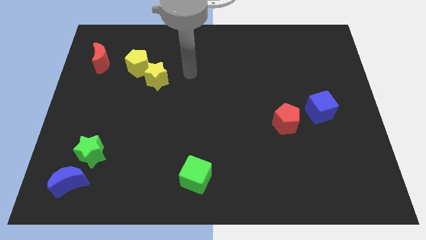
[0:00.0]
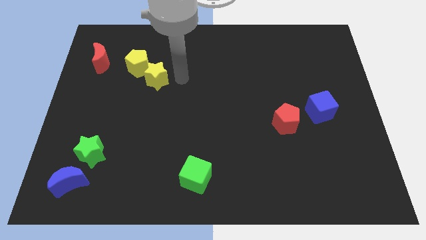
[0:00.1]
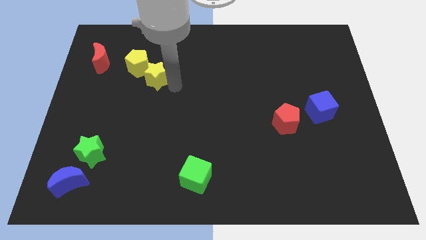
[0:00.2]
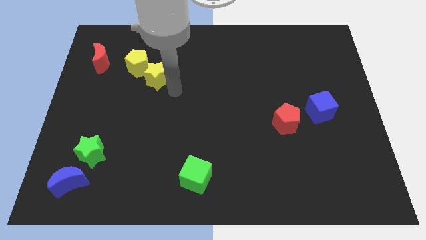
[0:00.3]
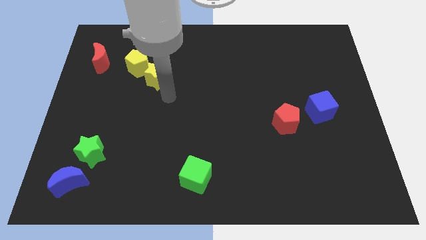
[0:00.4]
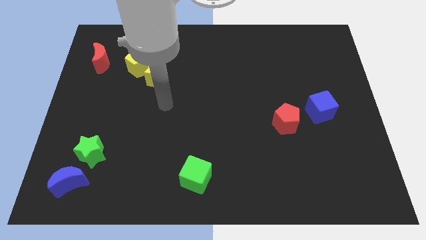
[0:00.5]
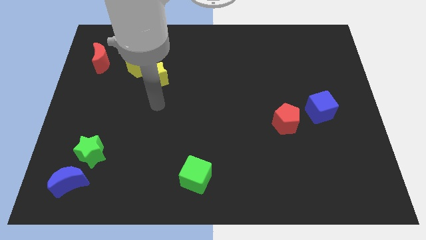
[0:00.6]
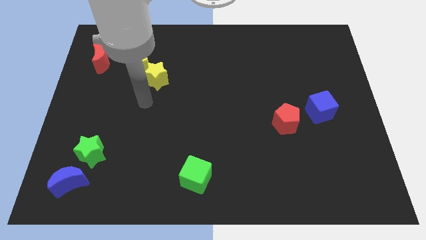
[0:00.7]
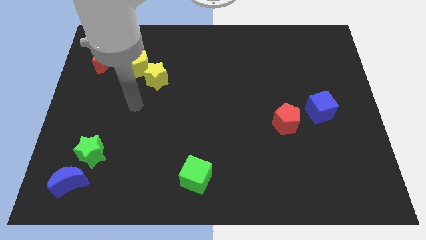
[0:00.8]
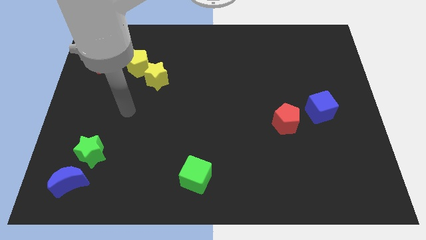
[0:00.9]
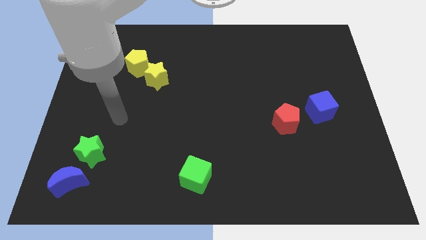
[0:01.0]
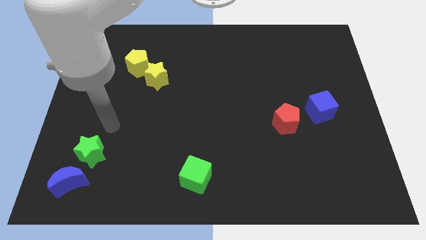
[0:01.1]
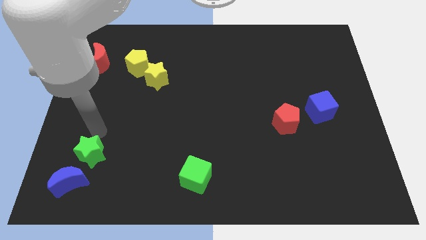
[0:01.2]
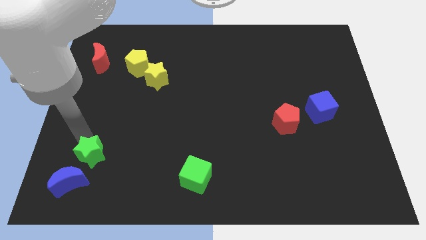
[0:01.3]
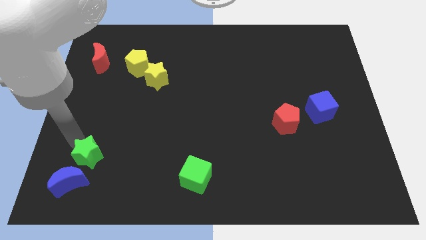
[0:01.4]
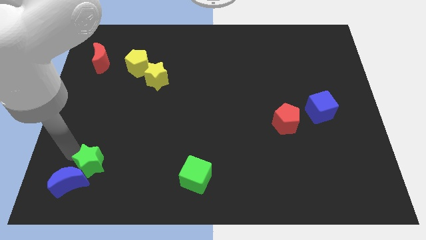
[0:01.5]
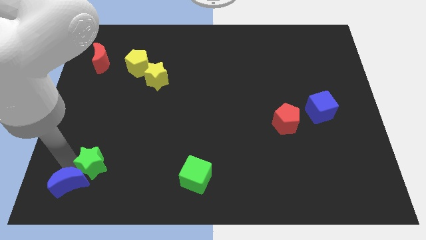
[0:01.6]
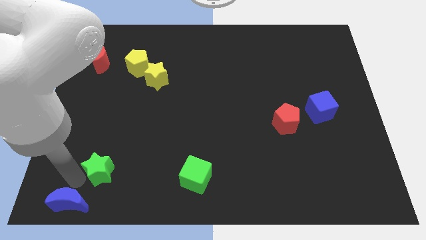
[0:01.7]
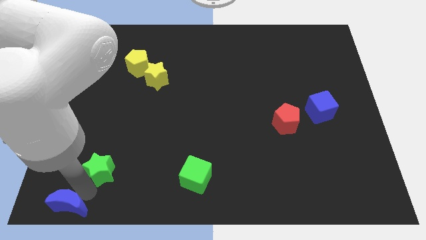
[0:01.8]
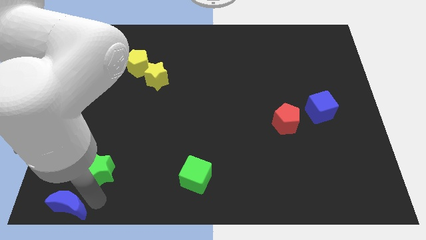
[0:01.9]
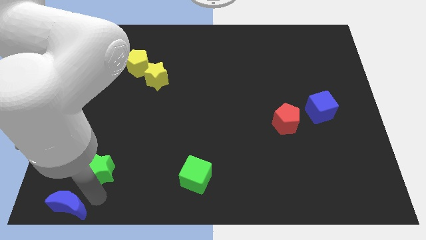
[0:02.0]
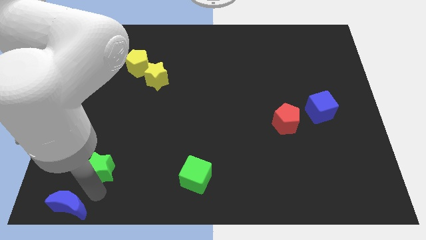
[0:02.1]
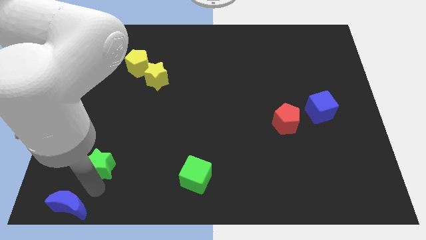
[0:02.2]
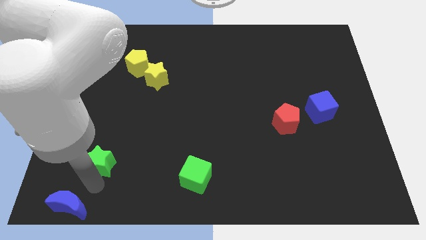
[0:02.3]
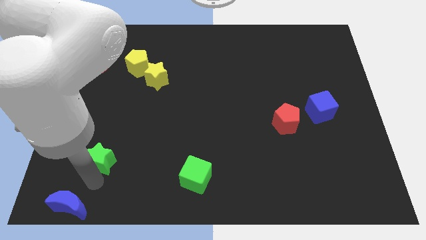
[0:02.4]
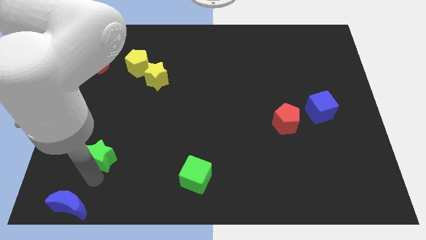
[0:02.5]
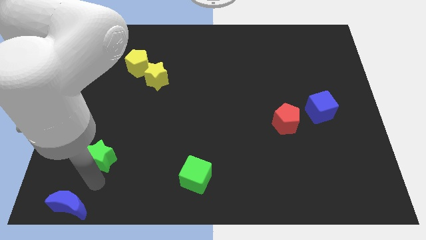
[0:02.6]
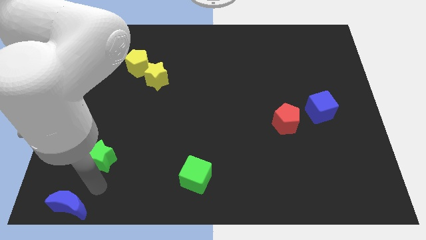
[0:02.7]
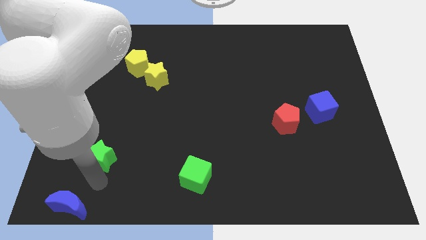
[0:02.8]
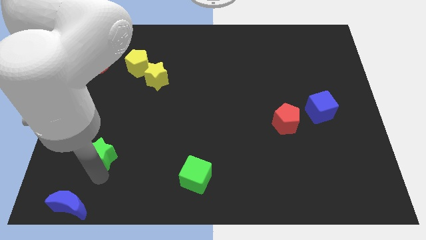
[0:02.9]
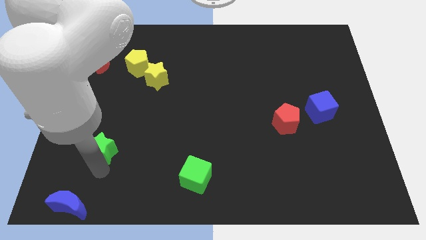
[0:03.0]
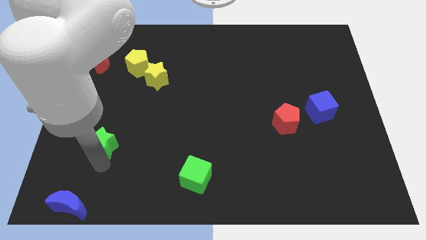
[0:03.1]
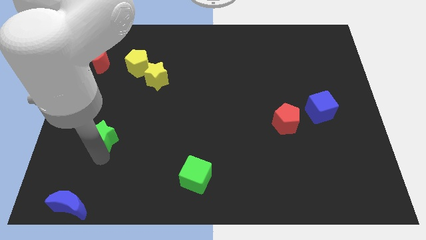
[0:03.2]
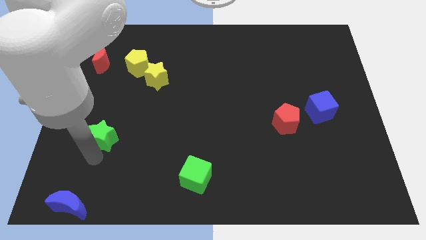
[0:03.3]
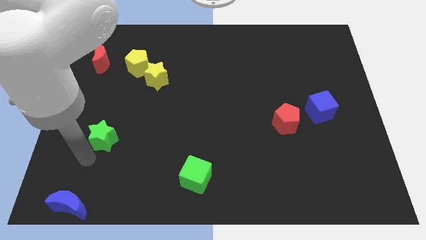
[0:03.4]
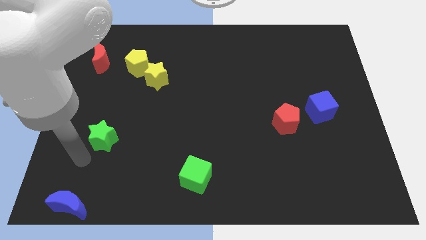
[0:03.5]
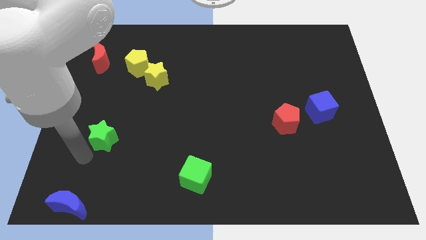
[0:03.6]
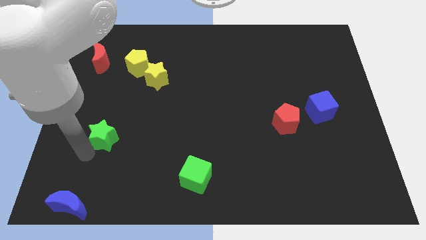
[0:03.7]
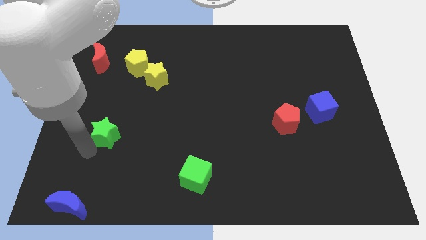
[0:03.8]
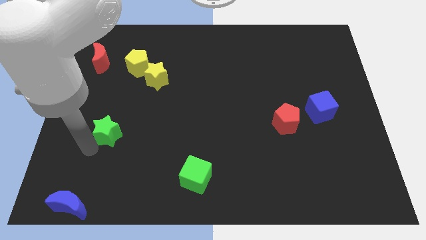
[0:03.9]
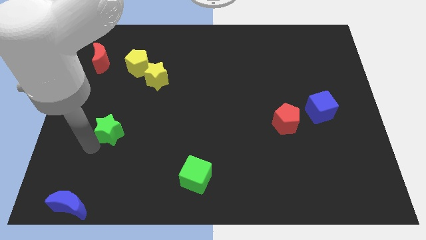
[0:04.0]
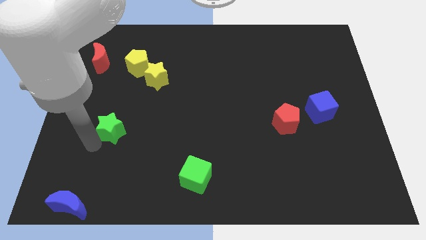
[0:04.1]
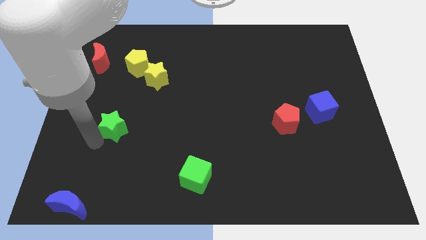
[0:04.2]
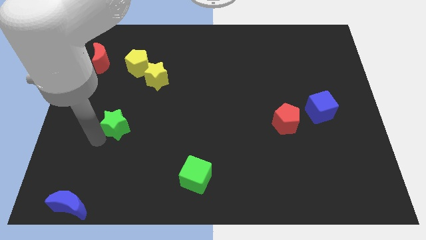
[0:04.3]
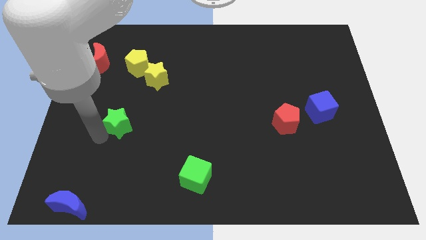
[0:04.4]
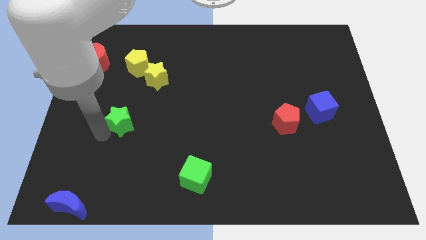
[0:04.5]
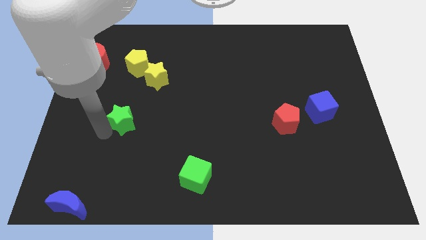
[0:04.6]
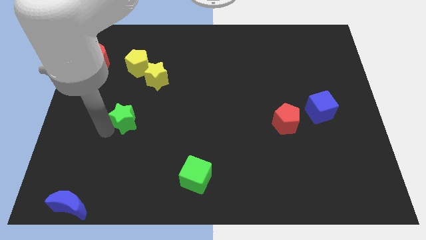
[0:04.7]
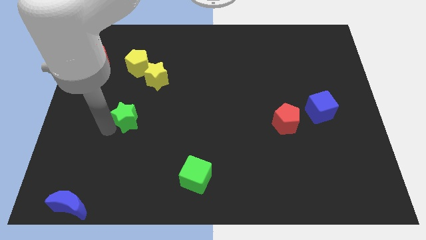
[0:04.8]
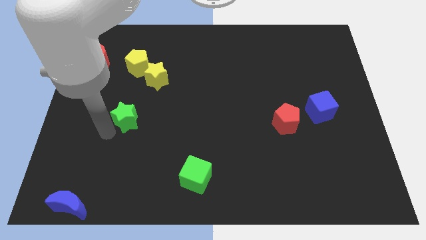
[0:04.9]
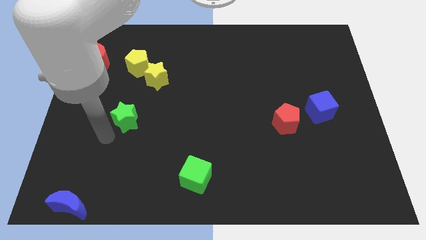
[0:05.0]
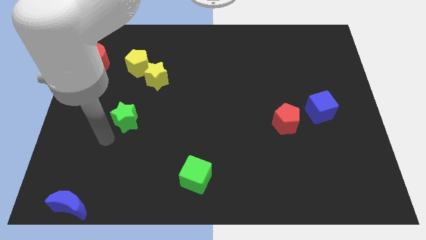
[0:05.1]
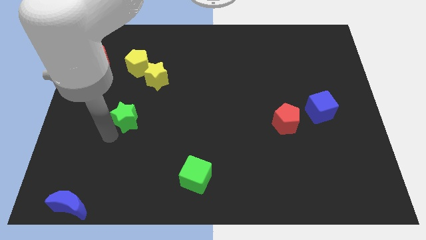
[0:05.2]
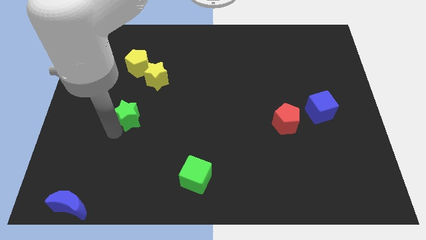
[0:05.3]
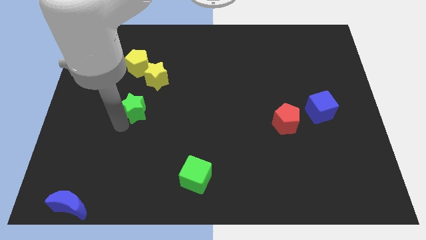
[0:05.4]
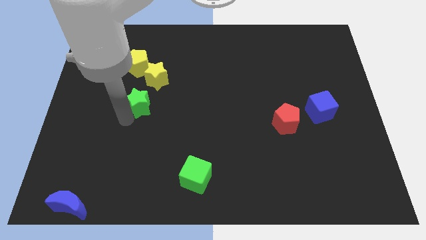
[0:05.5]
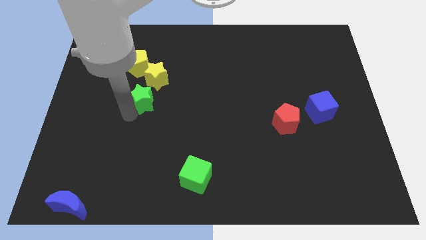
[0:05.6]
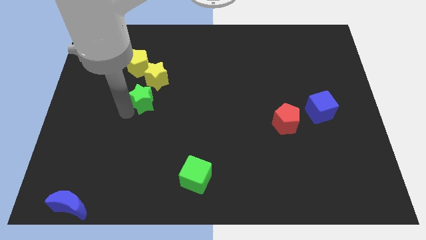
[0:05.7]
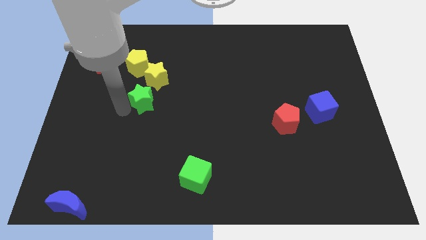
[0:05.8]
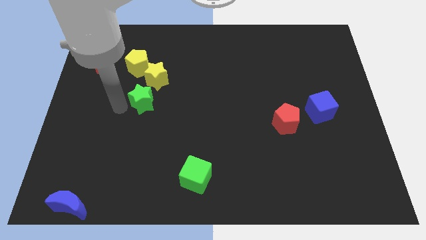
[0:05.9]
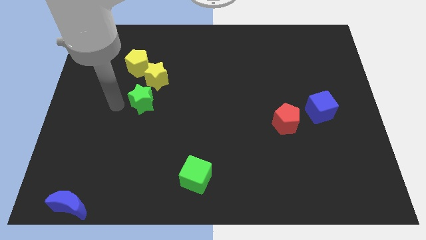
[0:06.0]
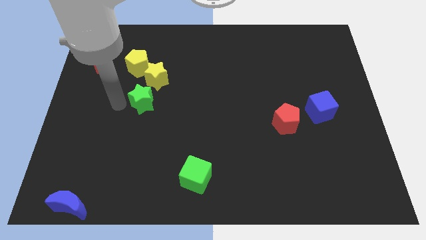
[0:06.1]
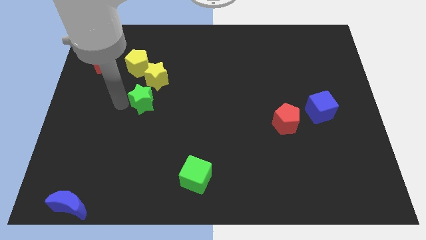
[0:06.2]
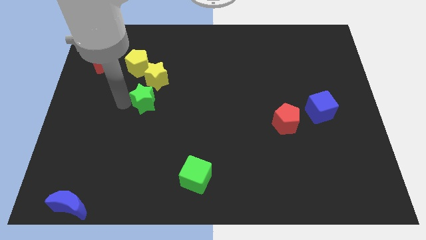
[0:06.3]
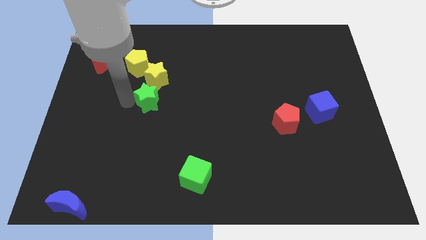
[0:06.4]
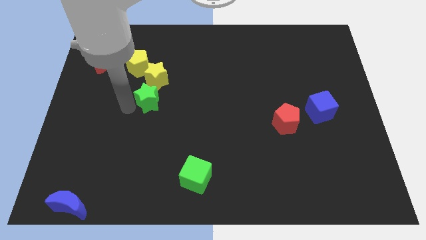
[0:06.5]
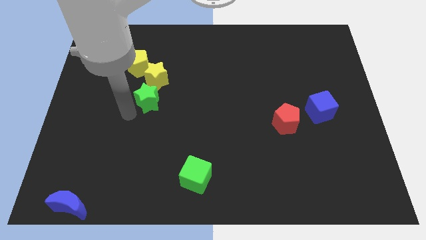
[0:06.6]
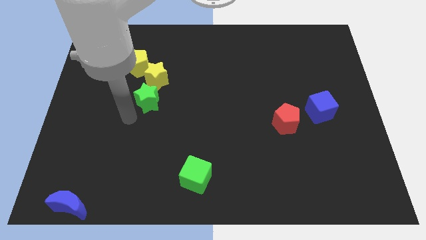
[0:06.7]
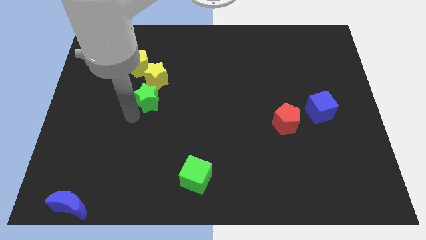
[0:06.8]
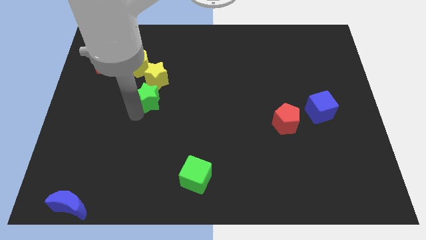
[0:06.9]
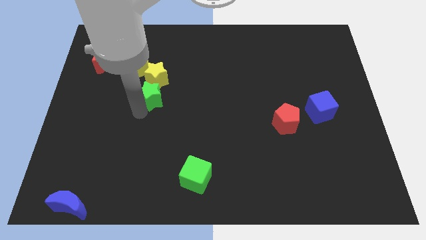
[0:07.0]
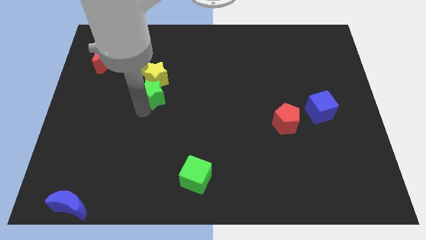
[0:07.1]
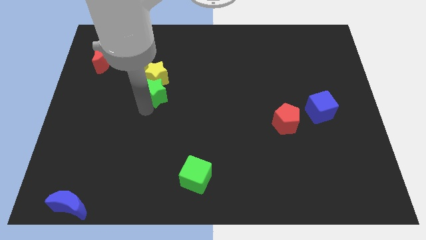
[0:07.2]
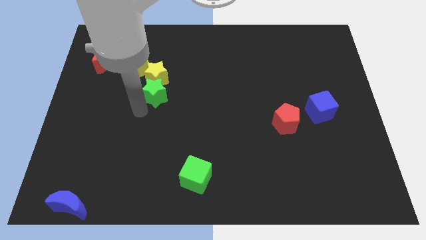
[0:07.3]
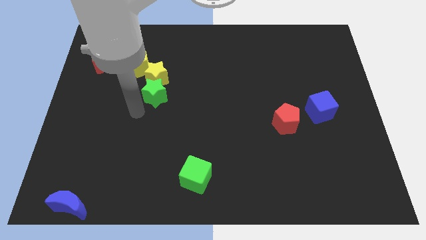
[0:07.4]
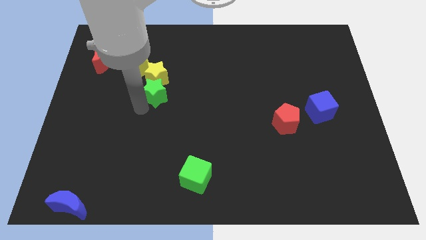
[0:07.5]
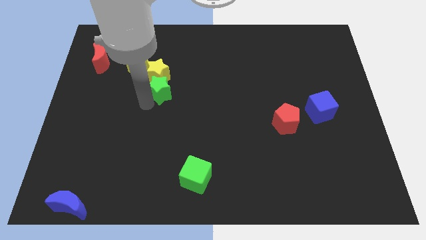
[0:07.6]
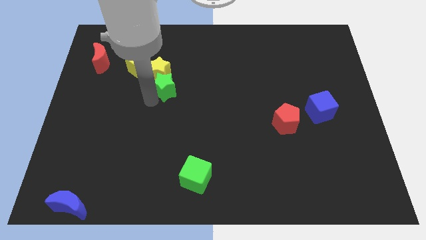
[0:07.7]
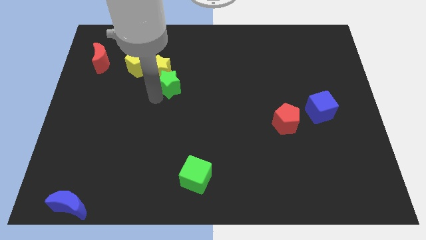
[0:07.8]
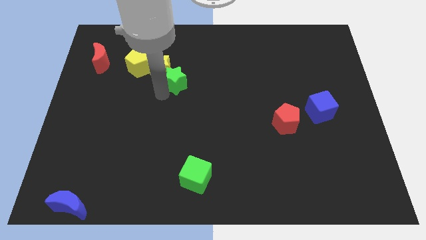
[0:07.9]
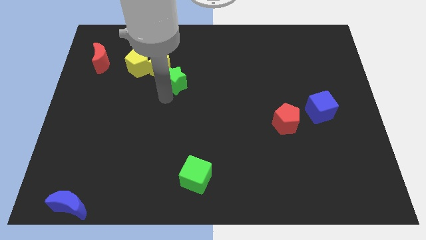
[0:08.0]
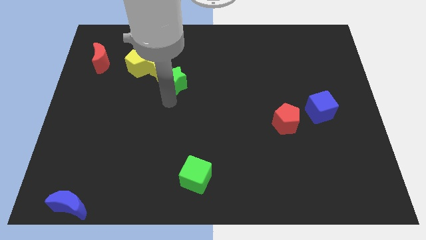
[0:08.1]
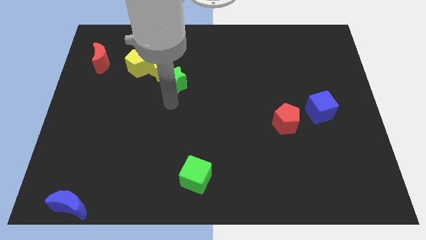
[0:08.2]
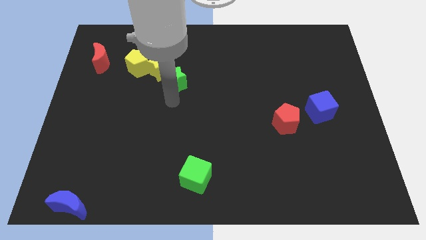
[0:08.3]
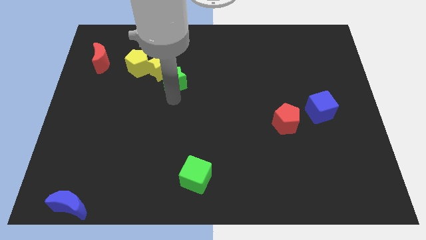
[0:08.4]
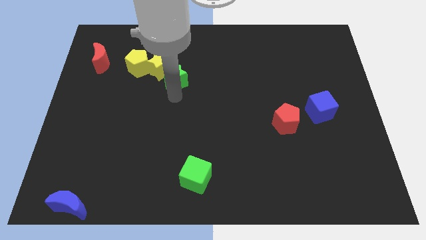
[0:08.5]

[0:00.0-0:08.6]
slide the green star right of the yellow pentagon
